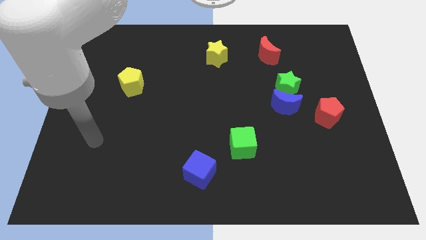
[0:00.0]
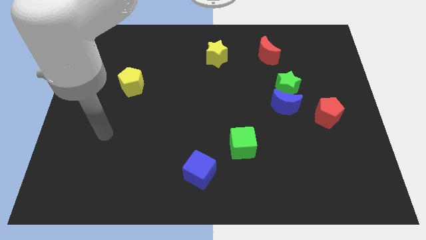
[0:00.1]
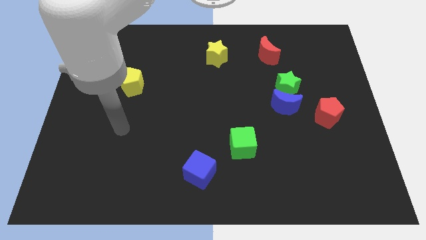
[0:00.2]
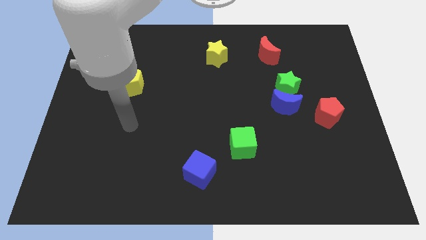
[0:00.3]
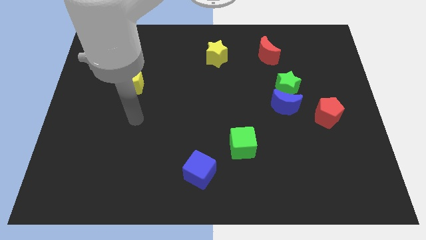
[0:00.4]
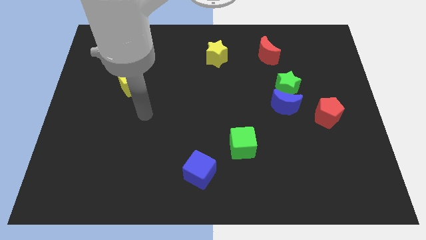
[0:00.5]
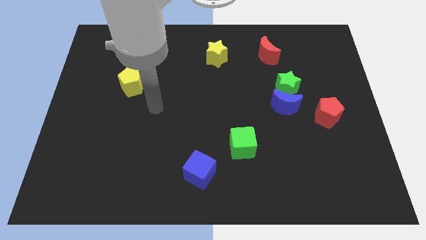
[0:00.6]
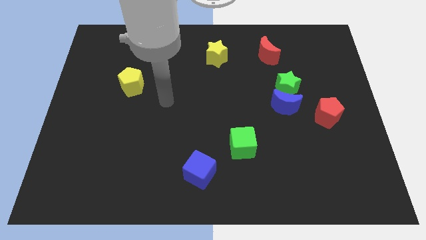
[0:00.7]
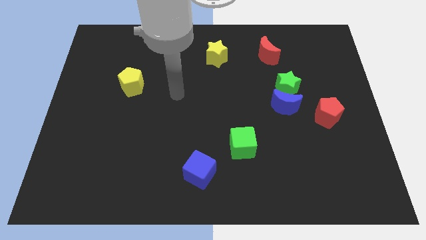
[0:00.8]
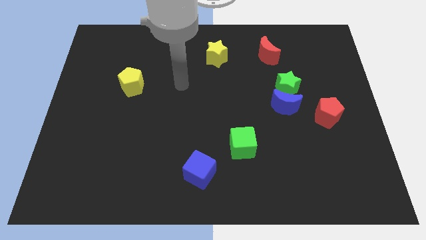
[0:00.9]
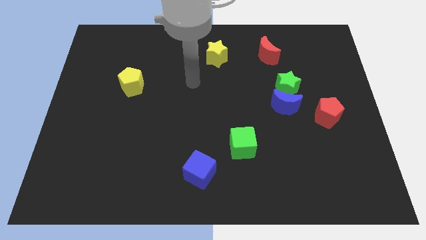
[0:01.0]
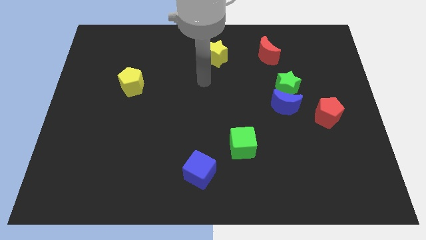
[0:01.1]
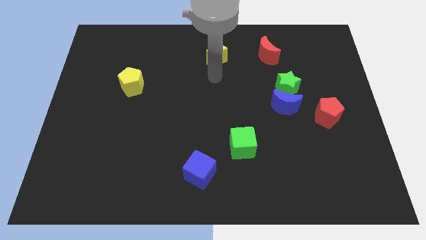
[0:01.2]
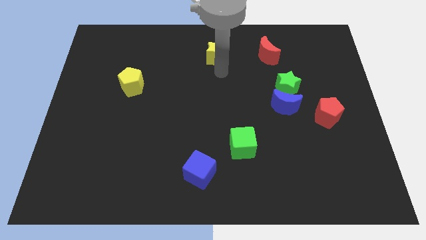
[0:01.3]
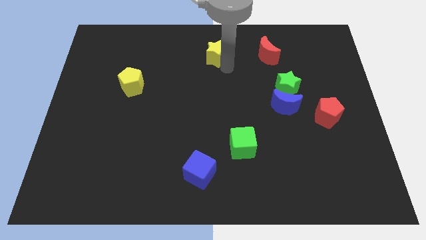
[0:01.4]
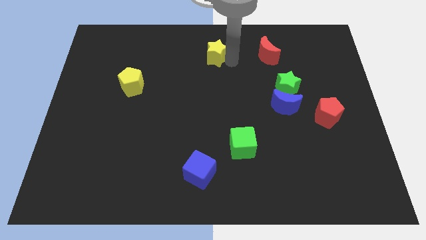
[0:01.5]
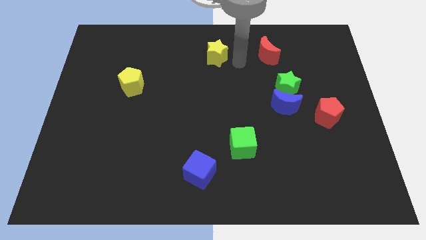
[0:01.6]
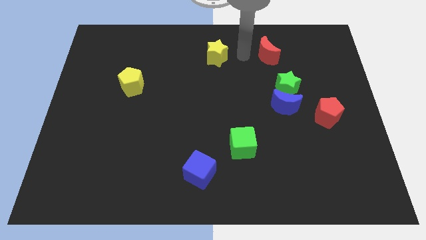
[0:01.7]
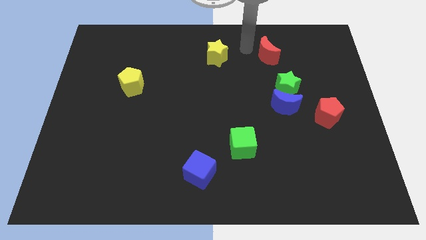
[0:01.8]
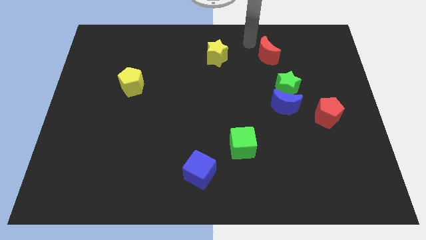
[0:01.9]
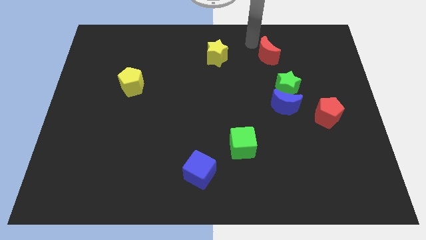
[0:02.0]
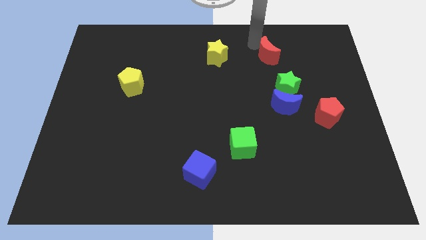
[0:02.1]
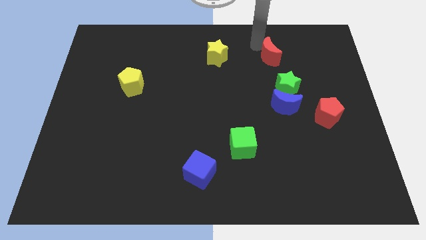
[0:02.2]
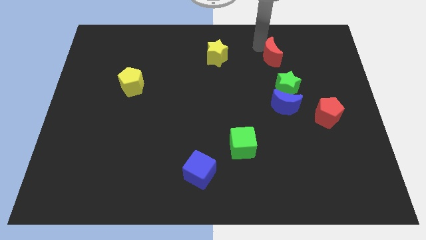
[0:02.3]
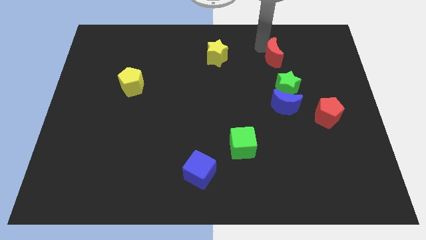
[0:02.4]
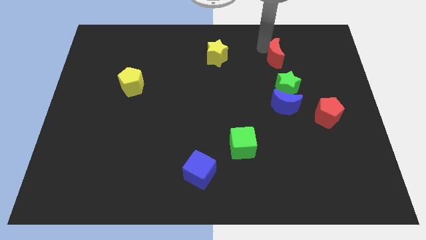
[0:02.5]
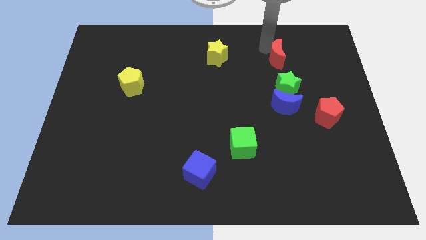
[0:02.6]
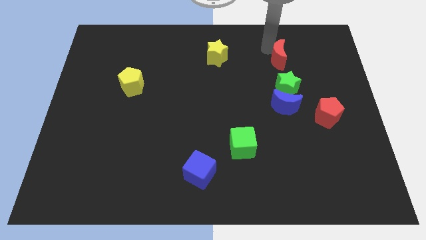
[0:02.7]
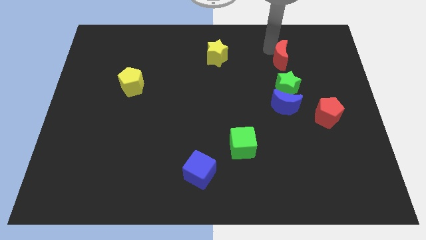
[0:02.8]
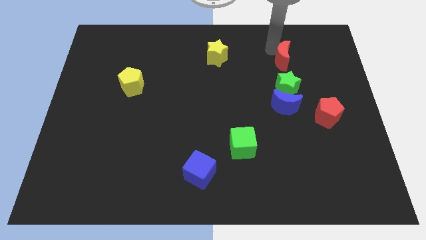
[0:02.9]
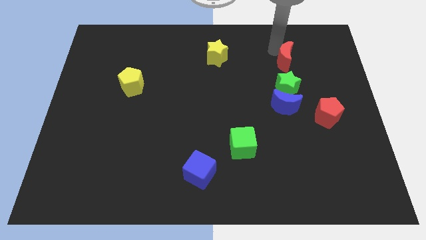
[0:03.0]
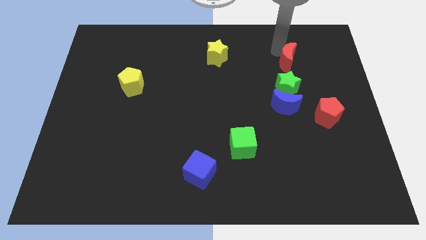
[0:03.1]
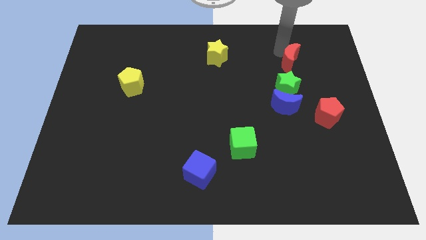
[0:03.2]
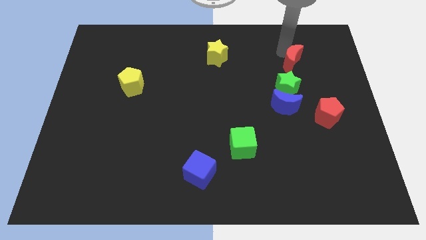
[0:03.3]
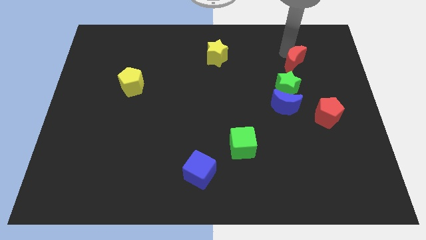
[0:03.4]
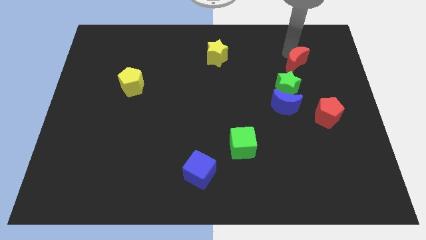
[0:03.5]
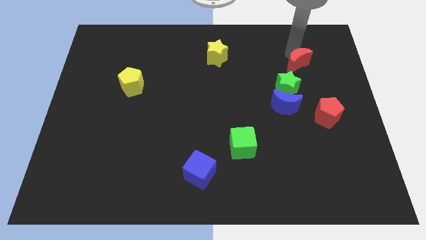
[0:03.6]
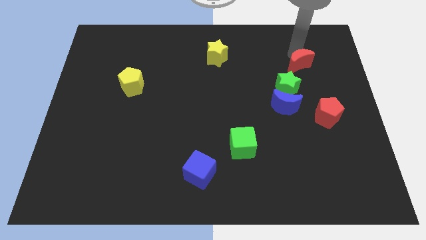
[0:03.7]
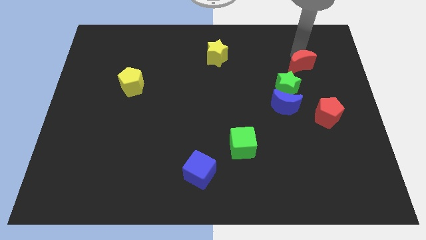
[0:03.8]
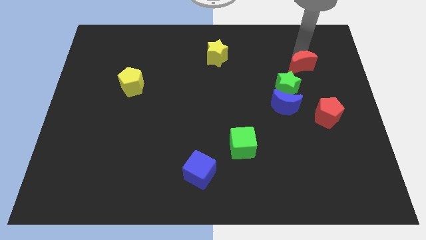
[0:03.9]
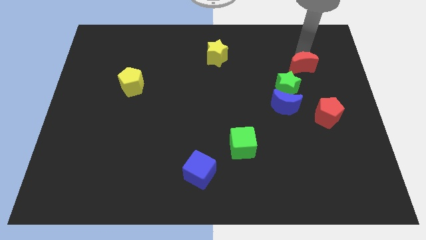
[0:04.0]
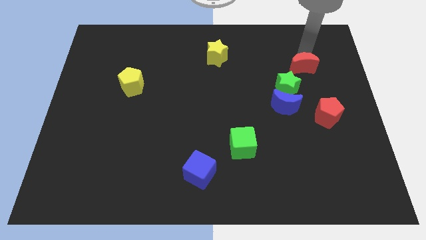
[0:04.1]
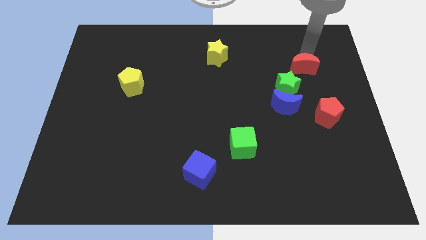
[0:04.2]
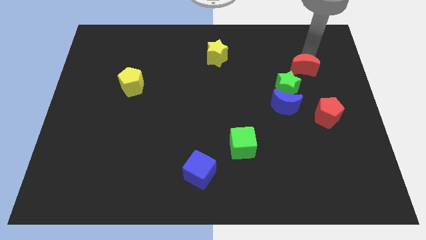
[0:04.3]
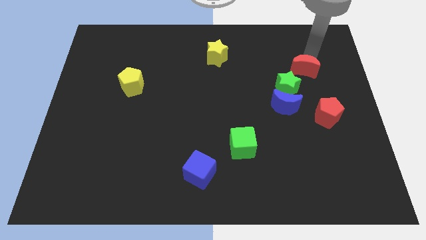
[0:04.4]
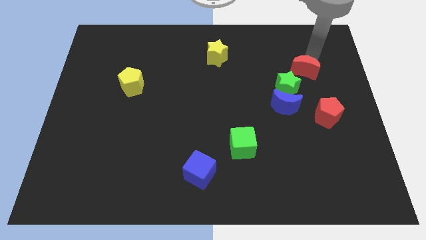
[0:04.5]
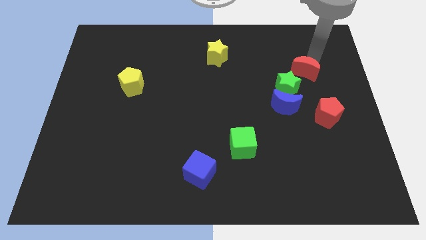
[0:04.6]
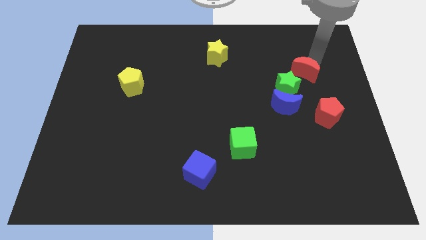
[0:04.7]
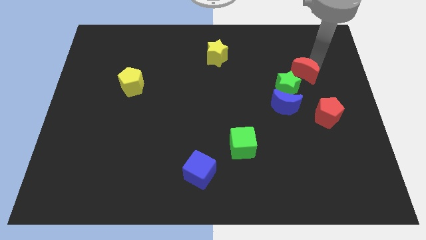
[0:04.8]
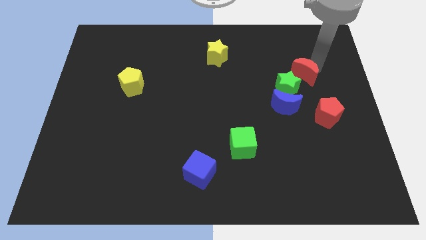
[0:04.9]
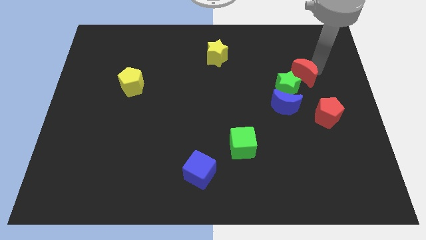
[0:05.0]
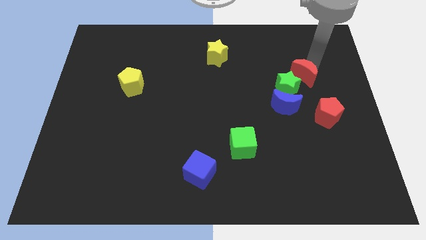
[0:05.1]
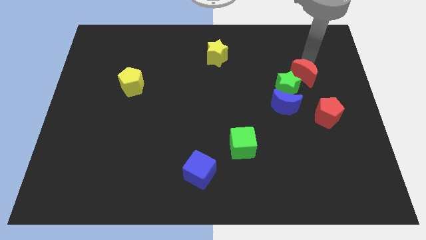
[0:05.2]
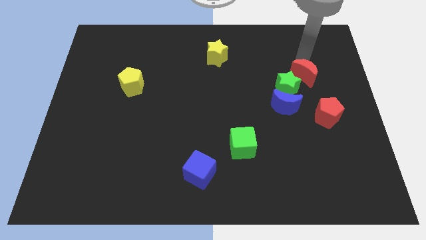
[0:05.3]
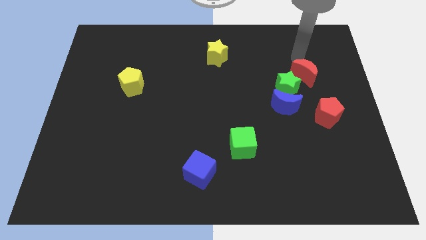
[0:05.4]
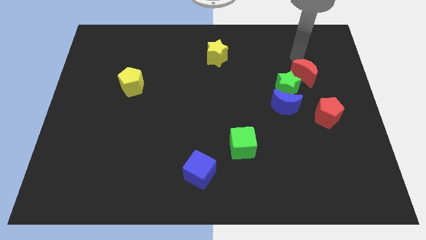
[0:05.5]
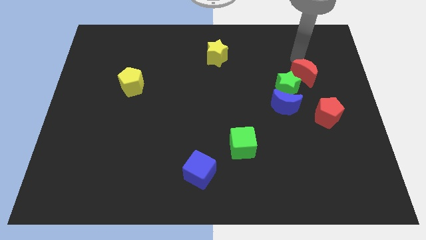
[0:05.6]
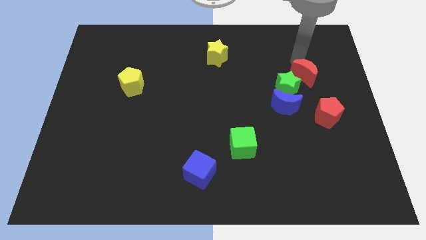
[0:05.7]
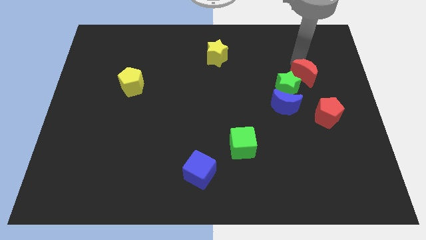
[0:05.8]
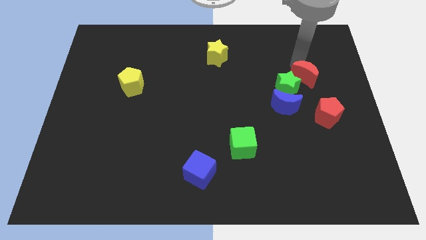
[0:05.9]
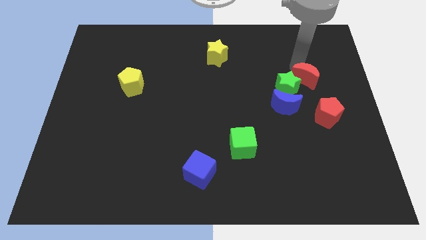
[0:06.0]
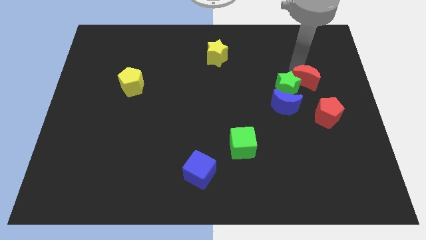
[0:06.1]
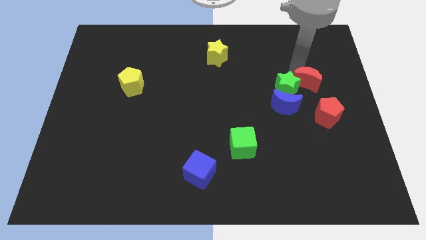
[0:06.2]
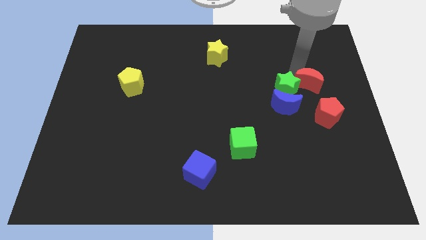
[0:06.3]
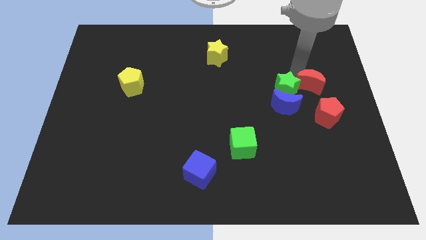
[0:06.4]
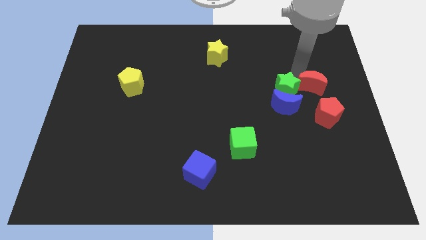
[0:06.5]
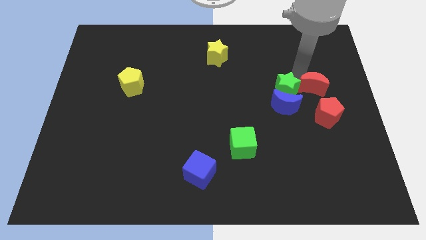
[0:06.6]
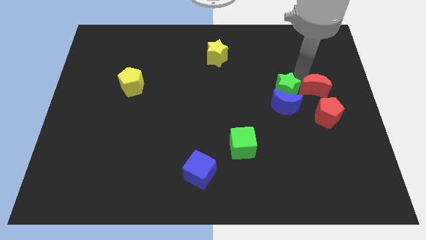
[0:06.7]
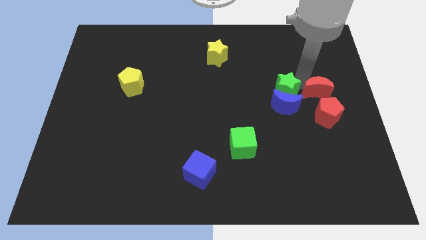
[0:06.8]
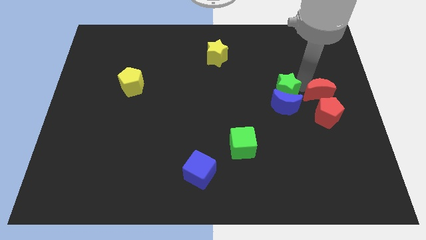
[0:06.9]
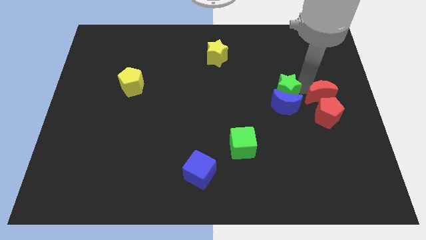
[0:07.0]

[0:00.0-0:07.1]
put the red moon next to the red pentagon

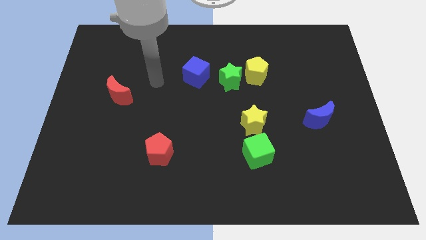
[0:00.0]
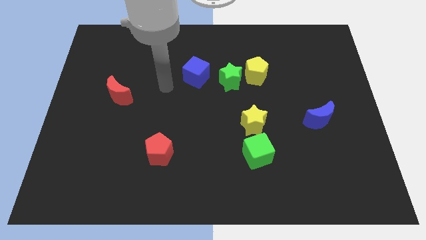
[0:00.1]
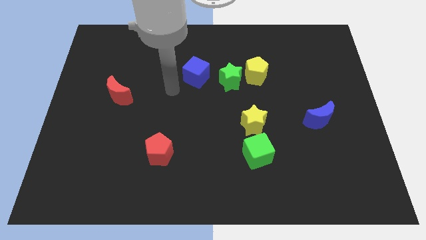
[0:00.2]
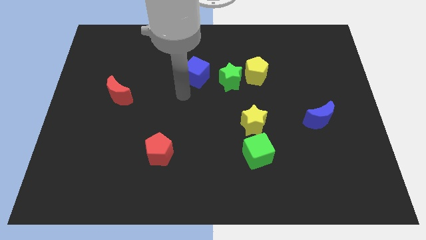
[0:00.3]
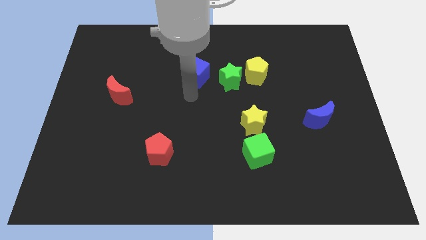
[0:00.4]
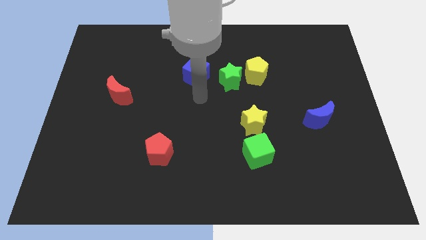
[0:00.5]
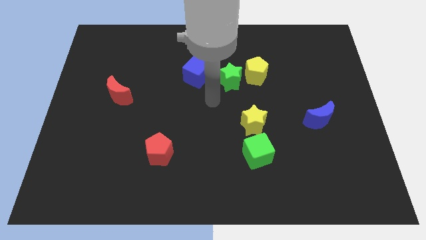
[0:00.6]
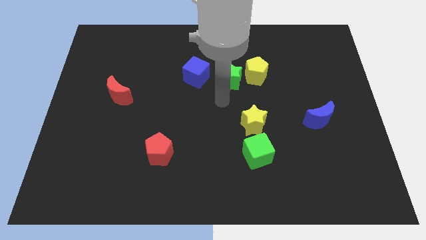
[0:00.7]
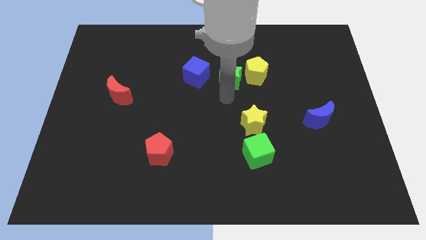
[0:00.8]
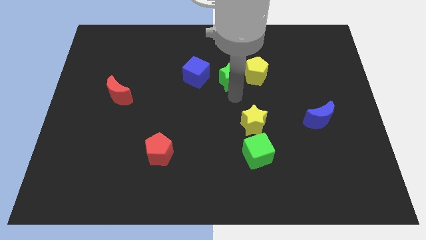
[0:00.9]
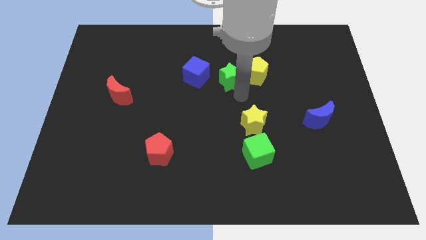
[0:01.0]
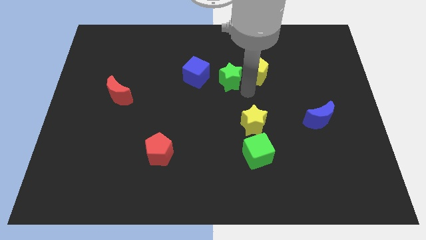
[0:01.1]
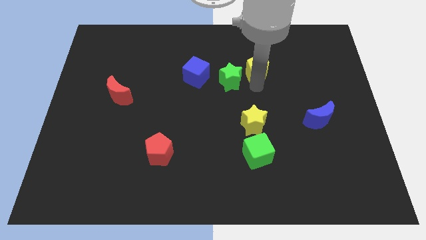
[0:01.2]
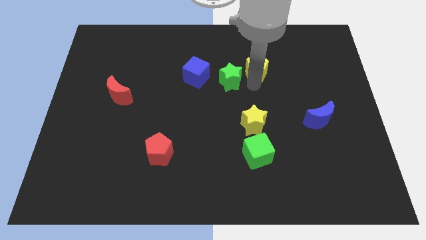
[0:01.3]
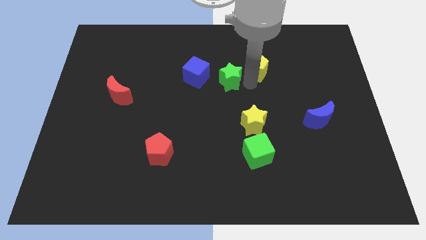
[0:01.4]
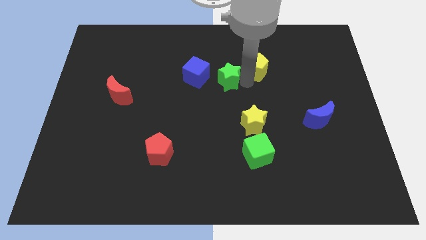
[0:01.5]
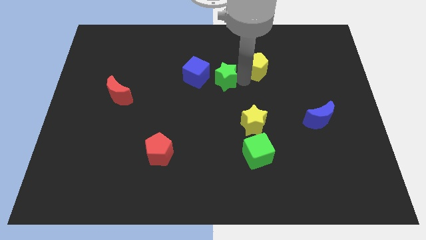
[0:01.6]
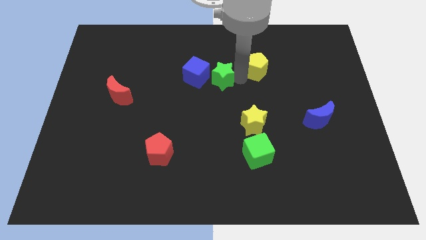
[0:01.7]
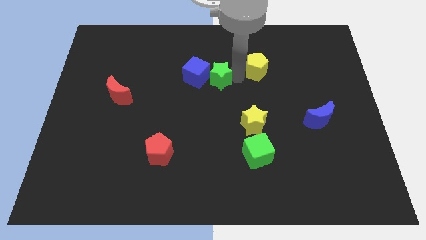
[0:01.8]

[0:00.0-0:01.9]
slide the green star next to the blue cube
